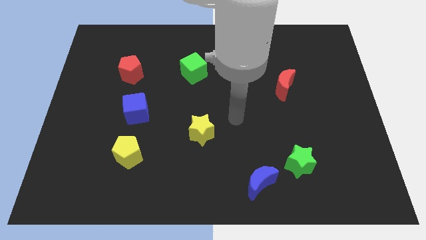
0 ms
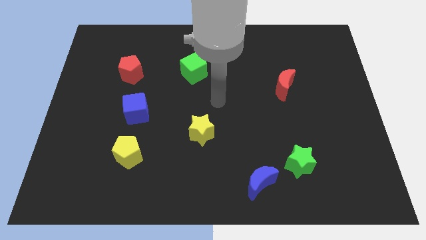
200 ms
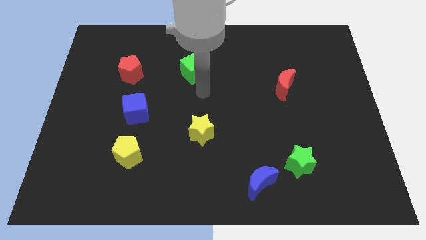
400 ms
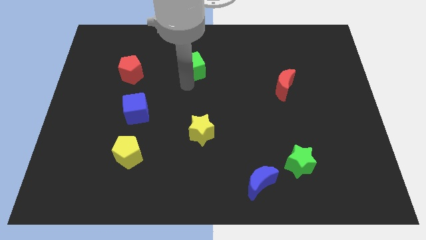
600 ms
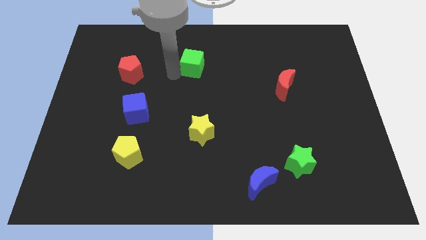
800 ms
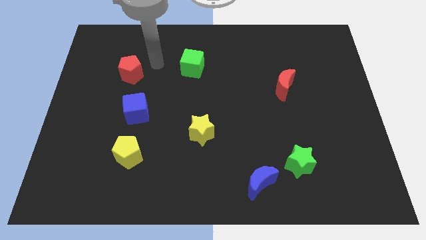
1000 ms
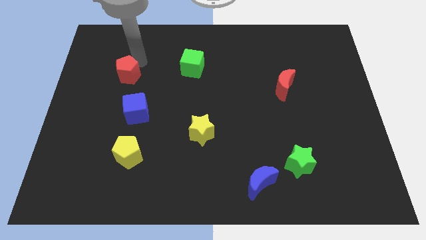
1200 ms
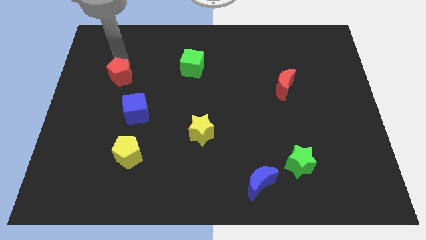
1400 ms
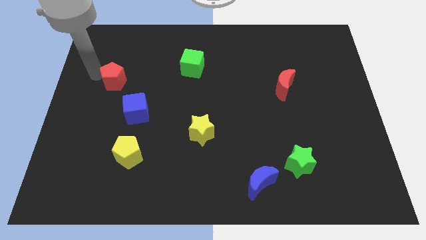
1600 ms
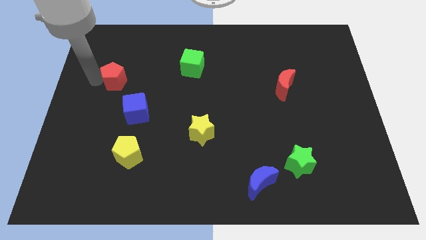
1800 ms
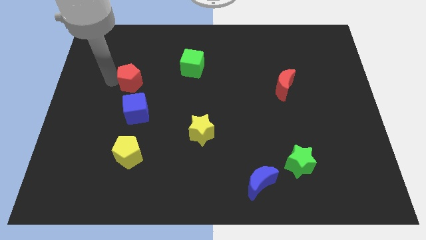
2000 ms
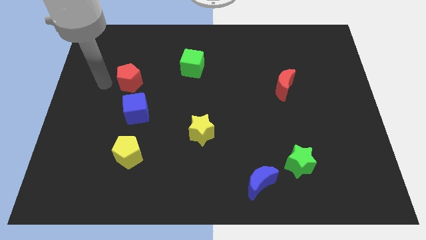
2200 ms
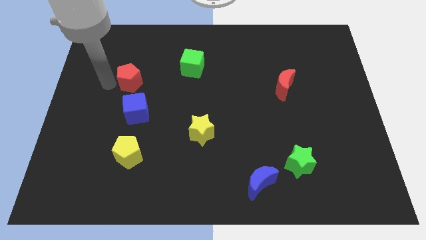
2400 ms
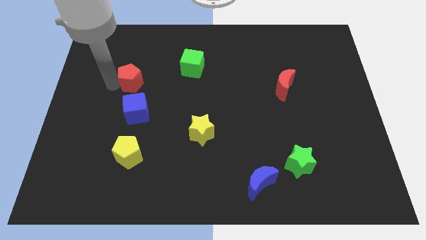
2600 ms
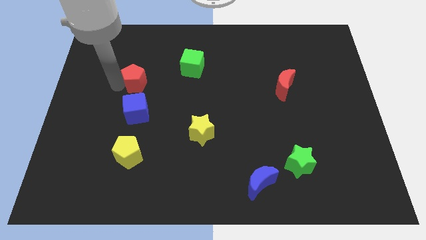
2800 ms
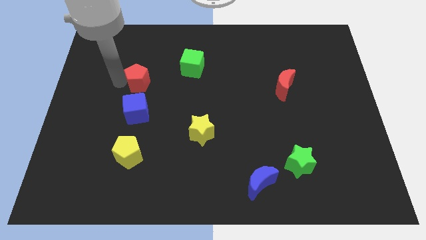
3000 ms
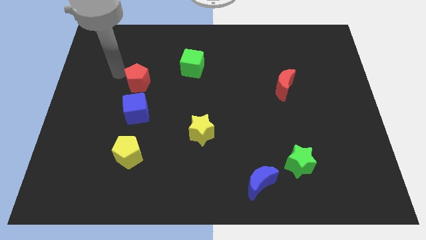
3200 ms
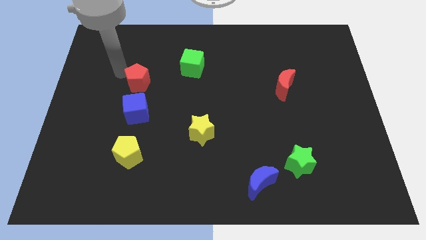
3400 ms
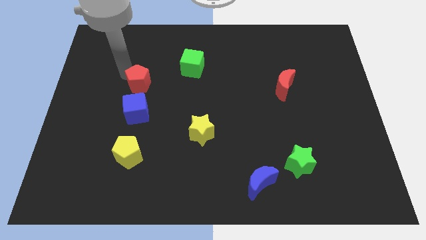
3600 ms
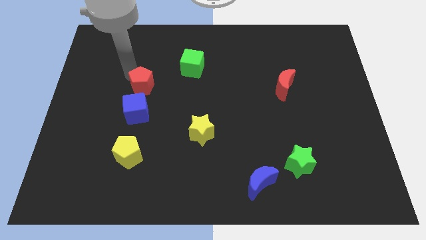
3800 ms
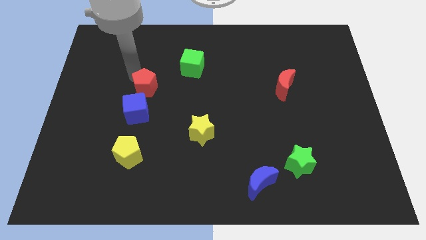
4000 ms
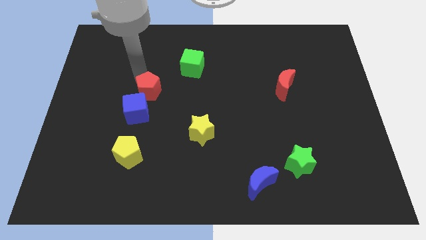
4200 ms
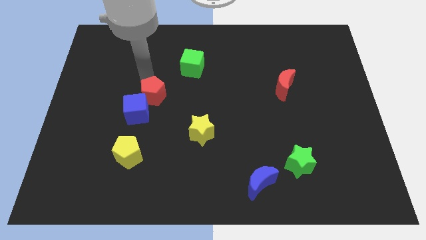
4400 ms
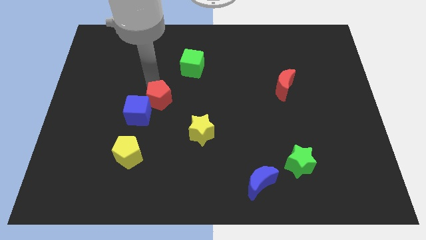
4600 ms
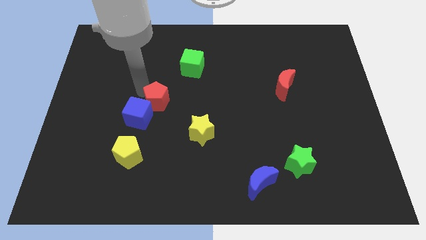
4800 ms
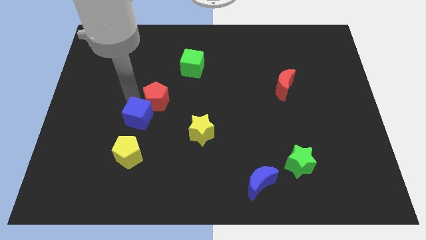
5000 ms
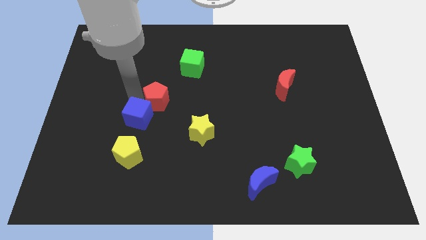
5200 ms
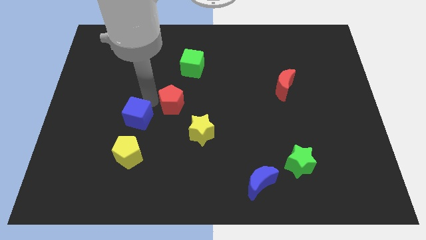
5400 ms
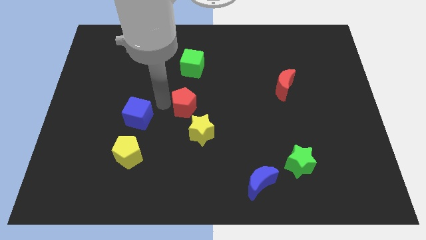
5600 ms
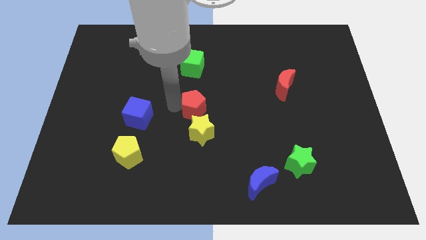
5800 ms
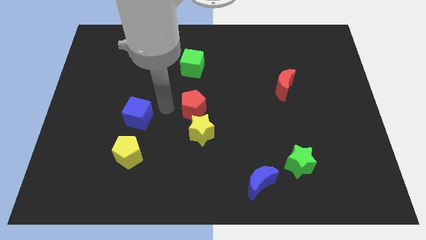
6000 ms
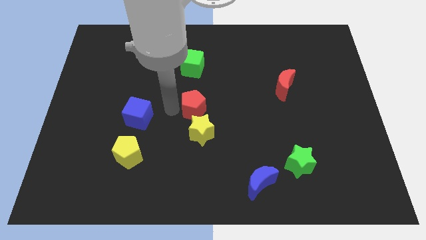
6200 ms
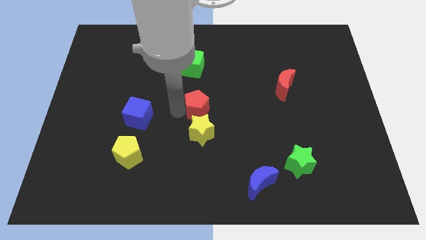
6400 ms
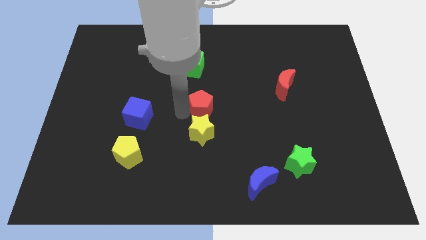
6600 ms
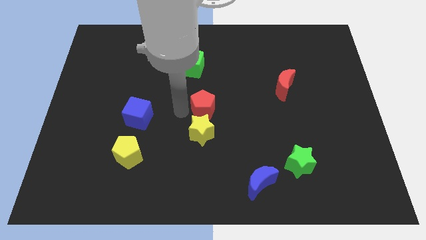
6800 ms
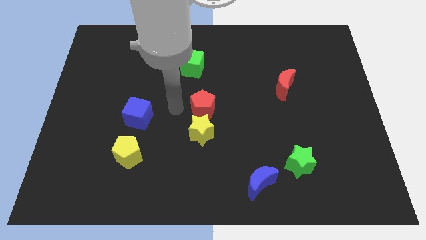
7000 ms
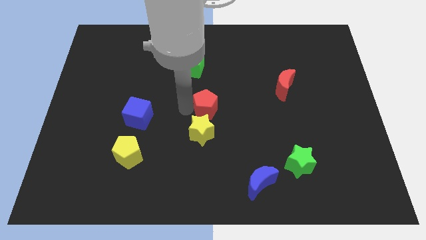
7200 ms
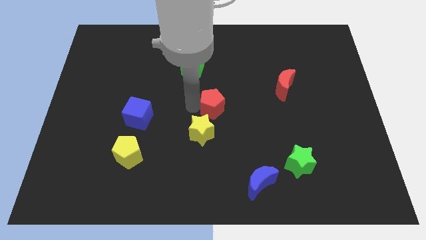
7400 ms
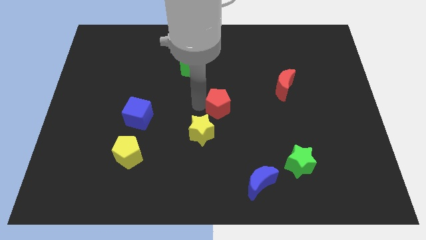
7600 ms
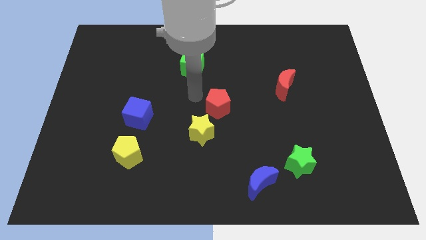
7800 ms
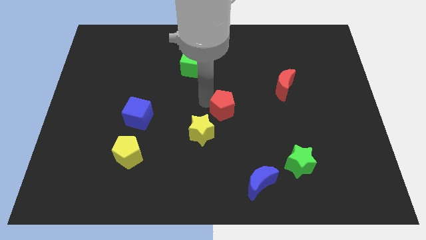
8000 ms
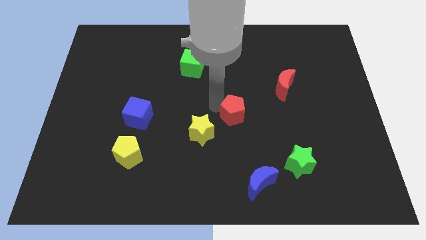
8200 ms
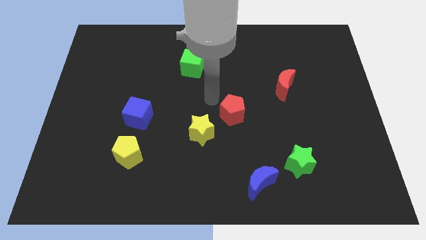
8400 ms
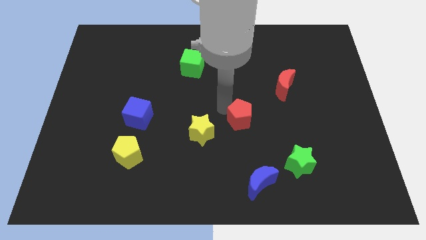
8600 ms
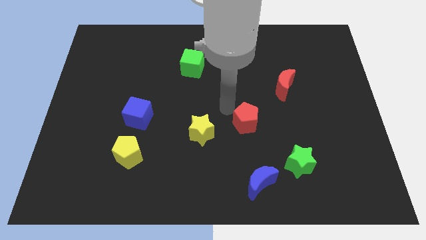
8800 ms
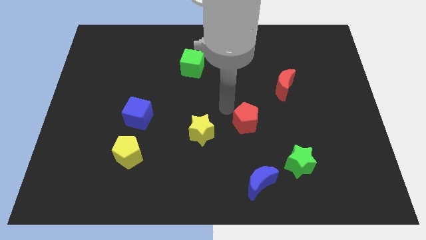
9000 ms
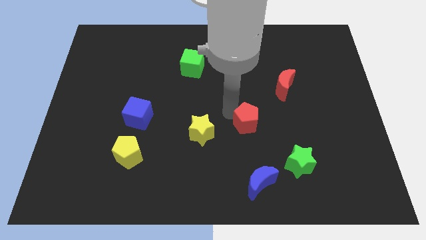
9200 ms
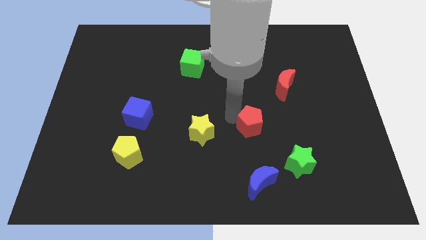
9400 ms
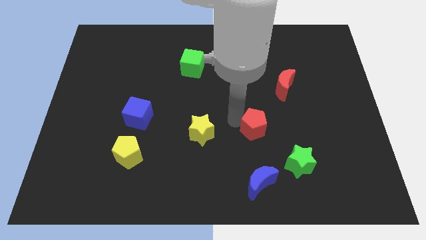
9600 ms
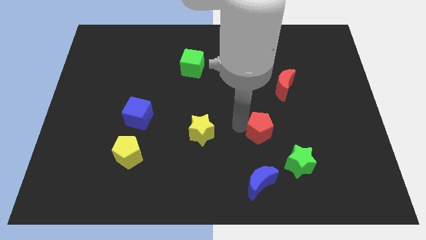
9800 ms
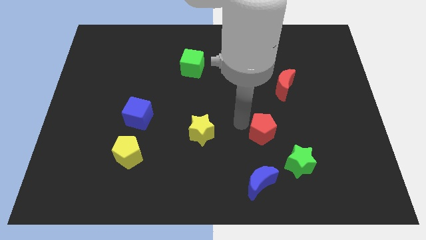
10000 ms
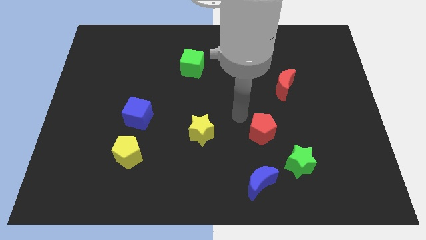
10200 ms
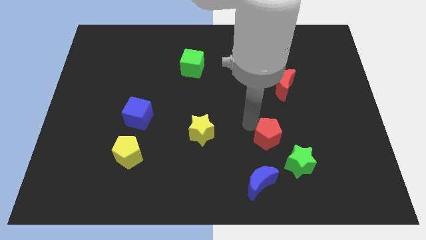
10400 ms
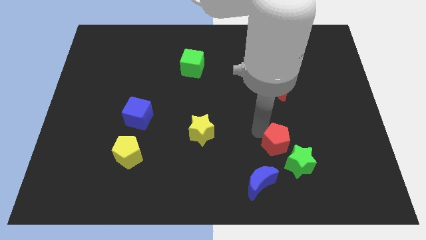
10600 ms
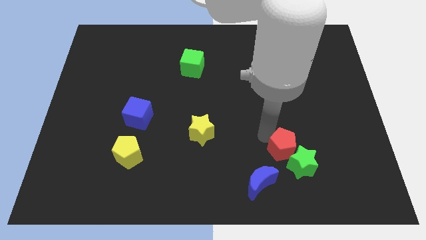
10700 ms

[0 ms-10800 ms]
put the red pentagon to the green star

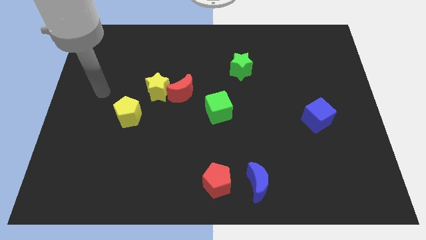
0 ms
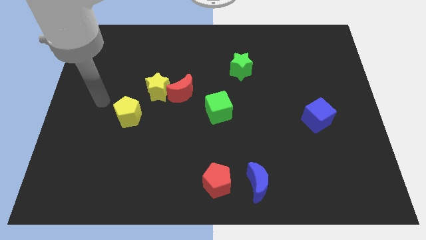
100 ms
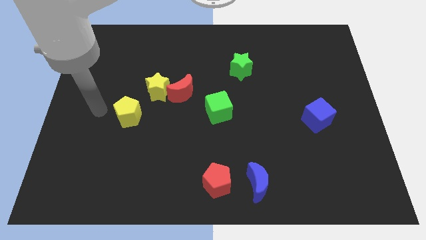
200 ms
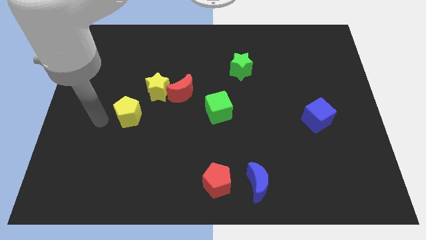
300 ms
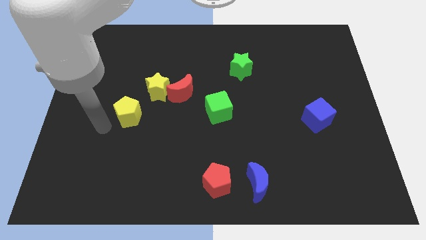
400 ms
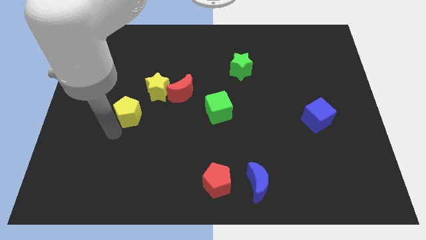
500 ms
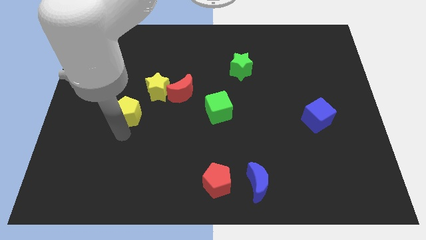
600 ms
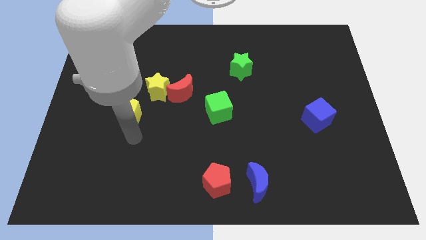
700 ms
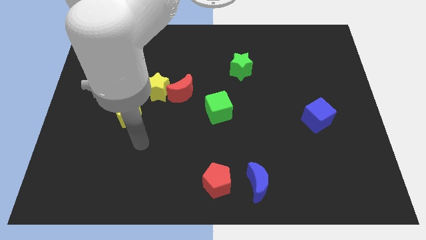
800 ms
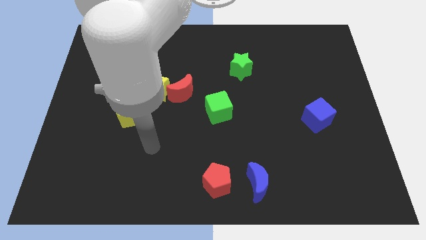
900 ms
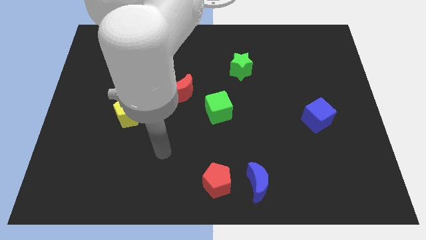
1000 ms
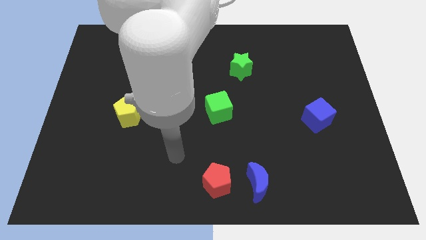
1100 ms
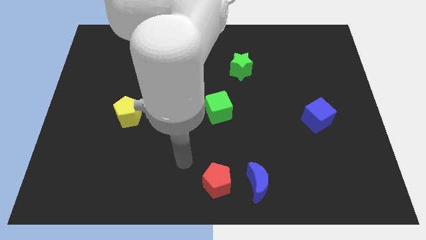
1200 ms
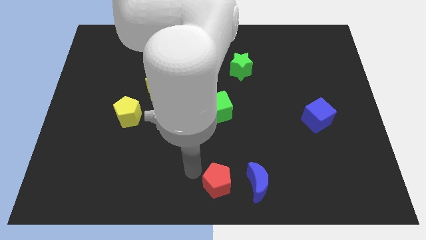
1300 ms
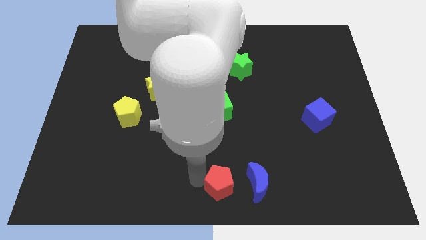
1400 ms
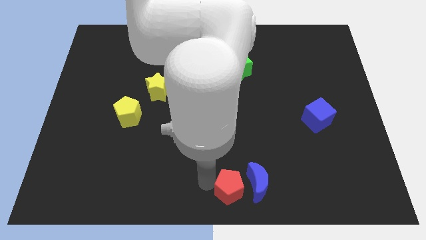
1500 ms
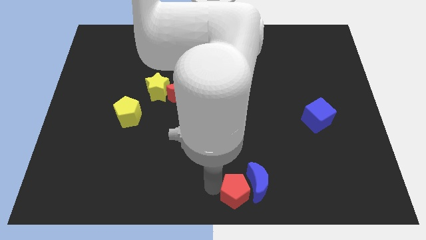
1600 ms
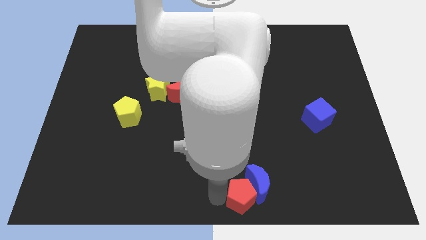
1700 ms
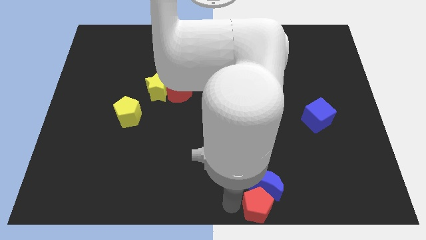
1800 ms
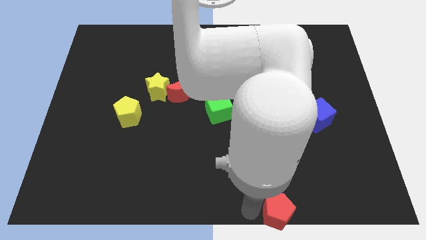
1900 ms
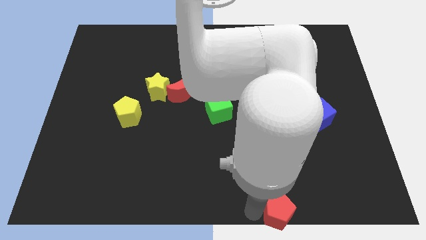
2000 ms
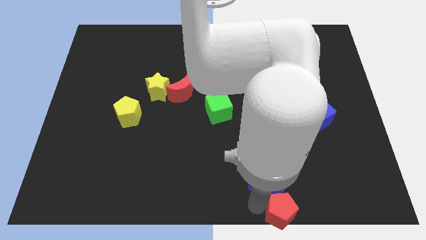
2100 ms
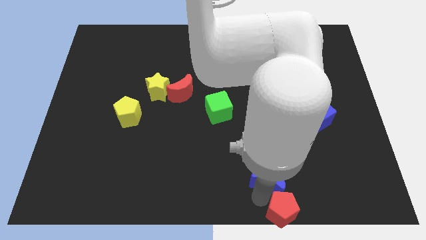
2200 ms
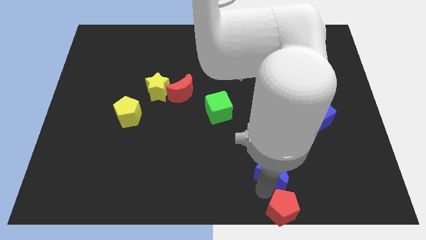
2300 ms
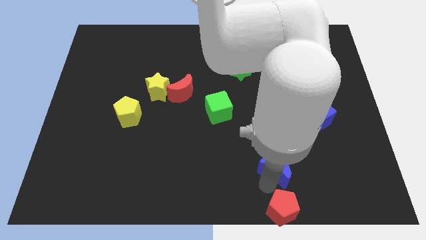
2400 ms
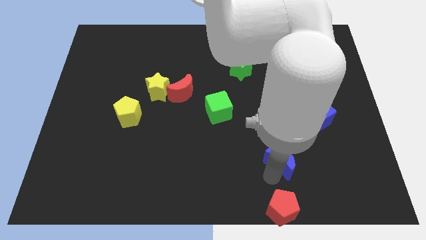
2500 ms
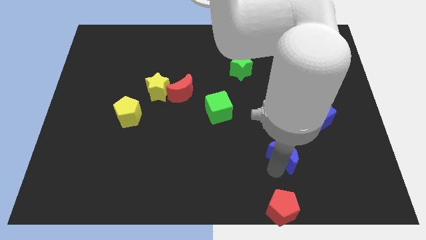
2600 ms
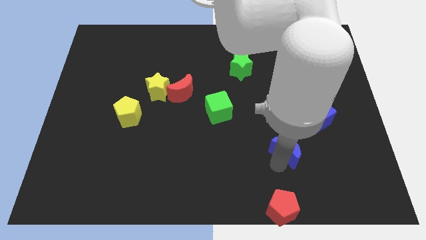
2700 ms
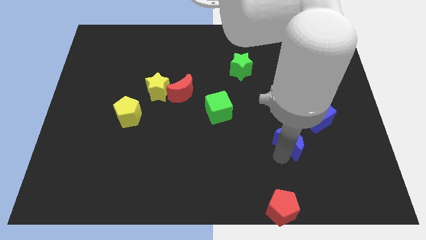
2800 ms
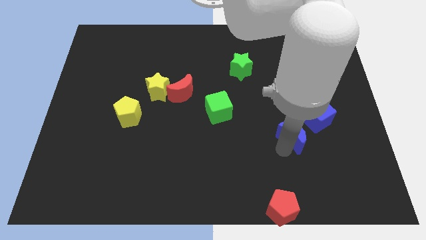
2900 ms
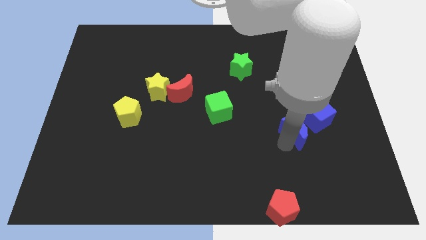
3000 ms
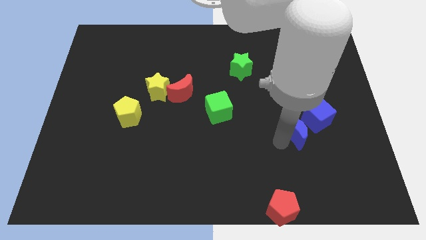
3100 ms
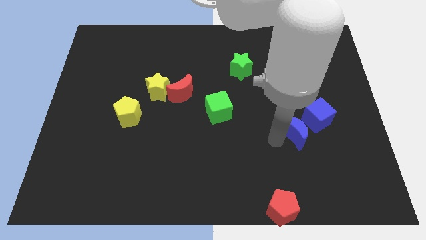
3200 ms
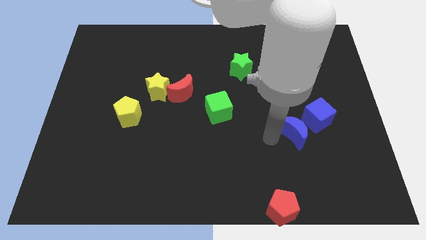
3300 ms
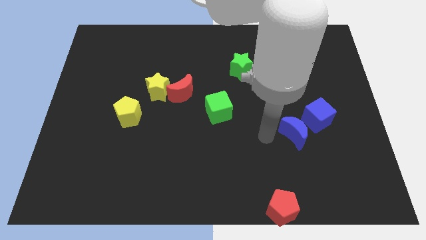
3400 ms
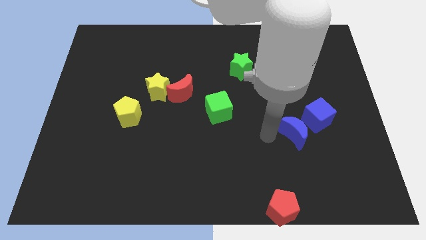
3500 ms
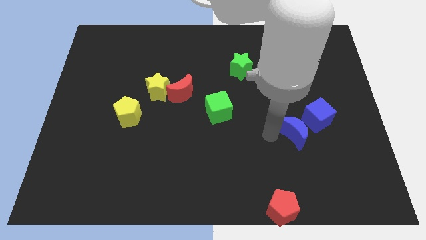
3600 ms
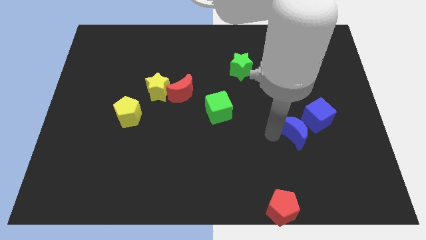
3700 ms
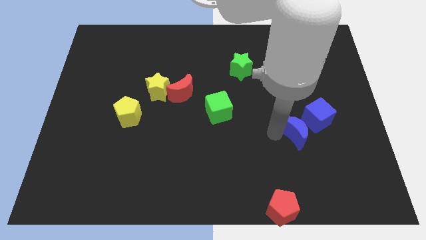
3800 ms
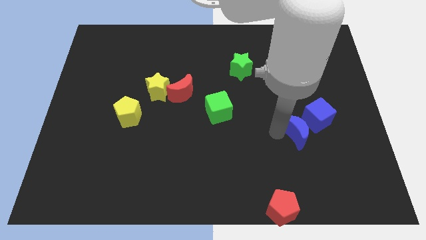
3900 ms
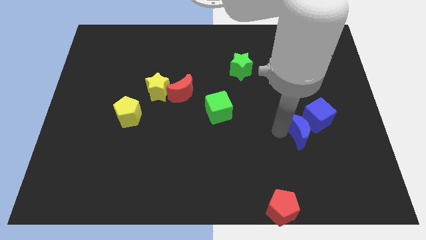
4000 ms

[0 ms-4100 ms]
slide the blue moon close to the blue cube
